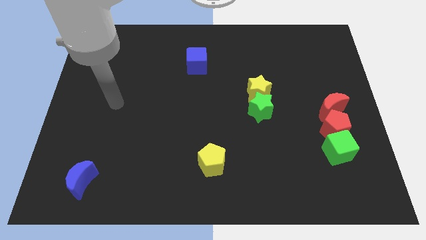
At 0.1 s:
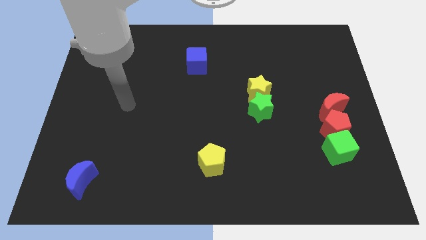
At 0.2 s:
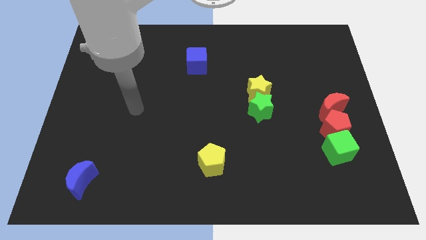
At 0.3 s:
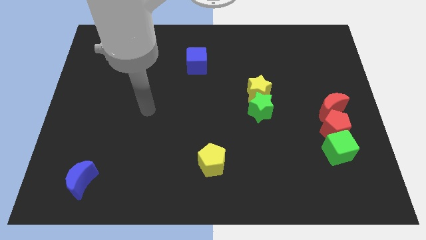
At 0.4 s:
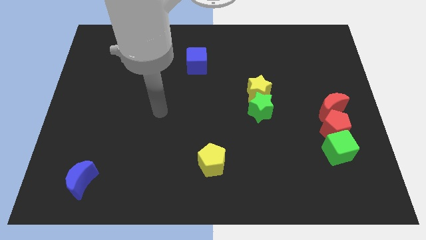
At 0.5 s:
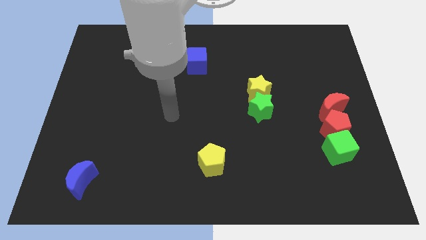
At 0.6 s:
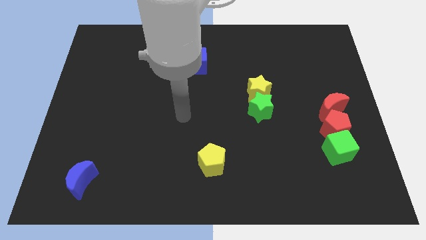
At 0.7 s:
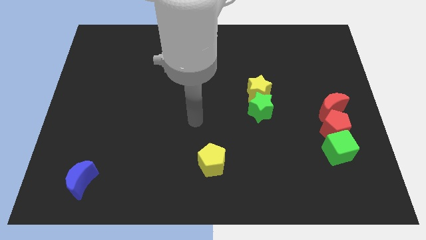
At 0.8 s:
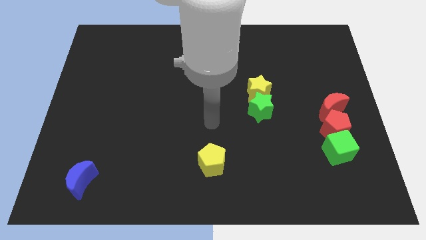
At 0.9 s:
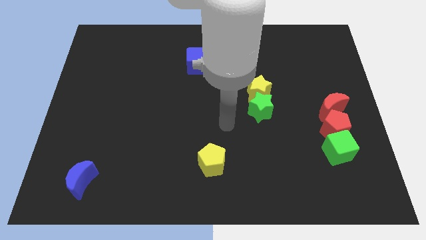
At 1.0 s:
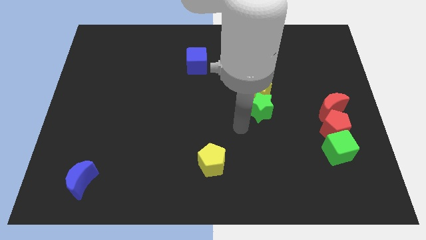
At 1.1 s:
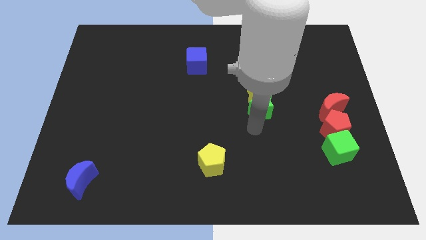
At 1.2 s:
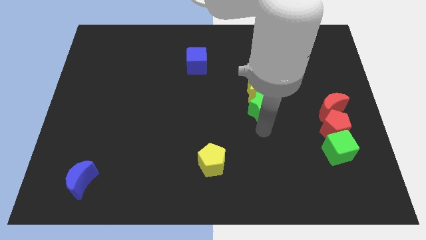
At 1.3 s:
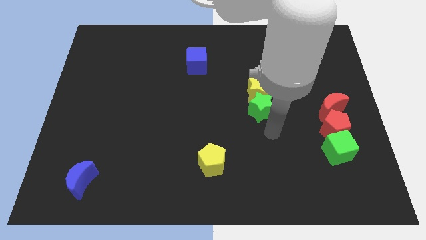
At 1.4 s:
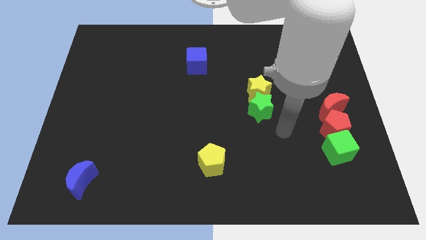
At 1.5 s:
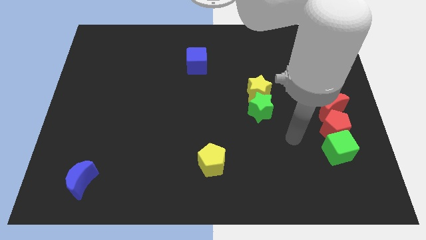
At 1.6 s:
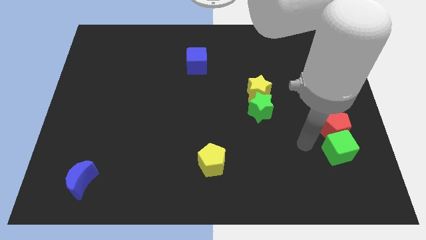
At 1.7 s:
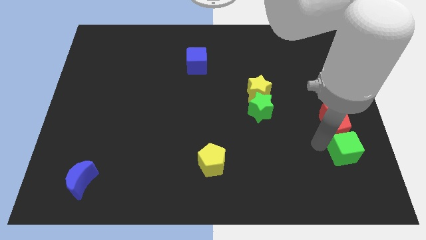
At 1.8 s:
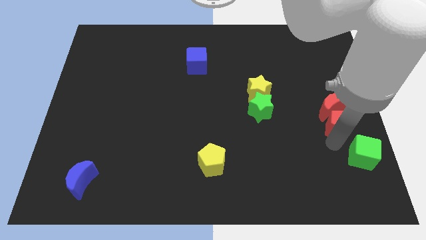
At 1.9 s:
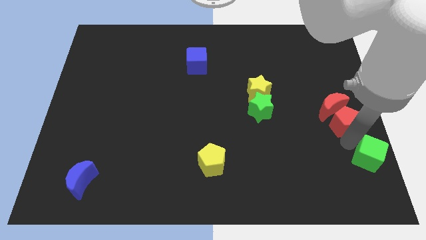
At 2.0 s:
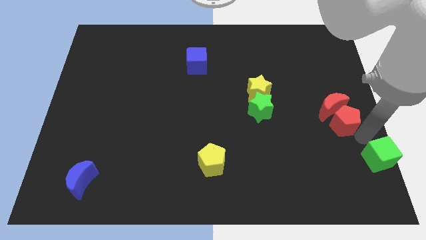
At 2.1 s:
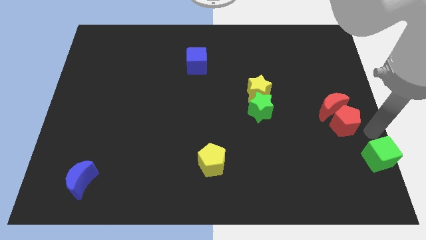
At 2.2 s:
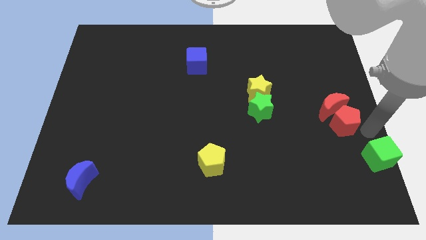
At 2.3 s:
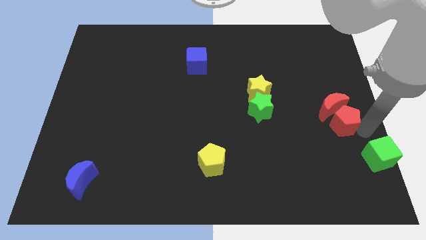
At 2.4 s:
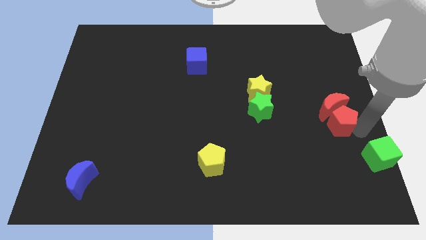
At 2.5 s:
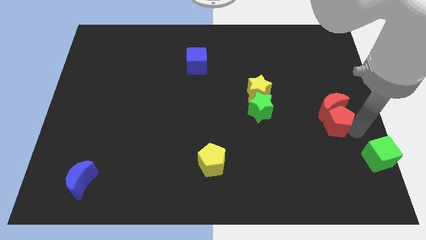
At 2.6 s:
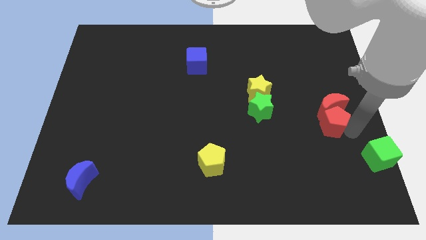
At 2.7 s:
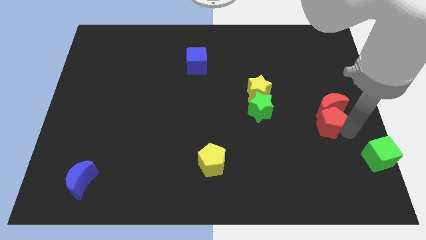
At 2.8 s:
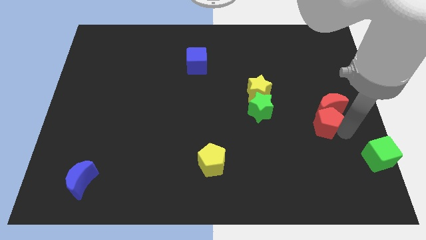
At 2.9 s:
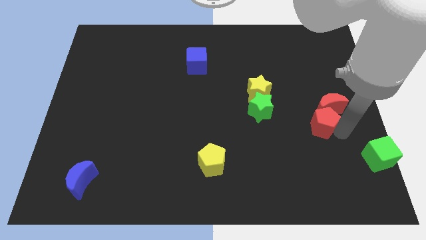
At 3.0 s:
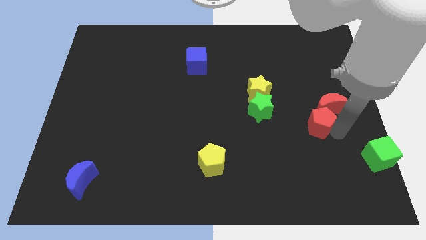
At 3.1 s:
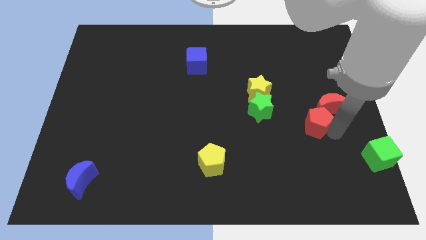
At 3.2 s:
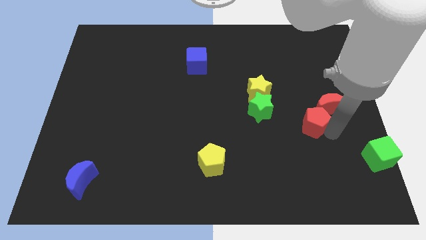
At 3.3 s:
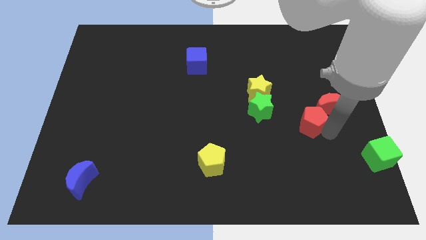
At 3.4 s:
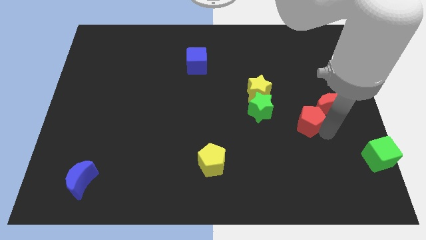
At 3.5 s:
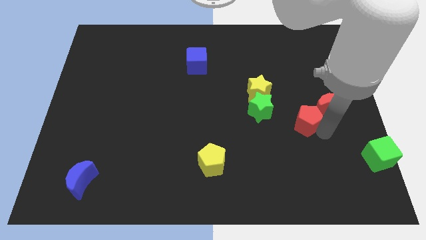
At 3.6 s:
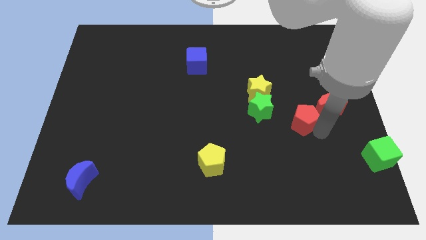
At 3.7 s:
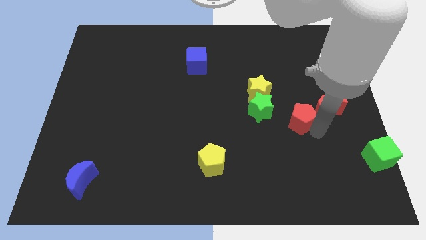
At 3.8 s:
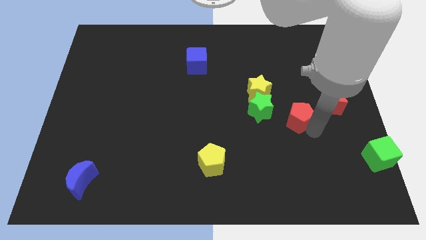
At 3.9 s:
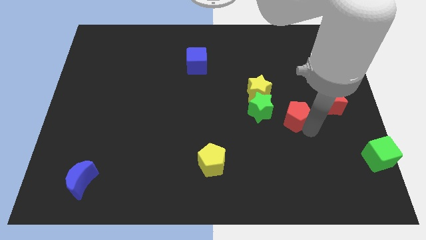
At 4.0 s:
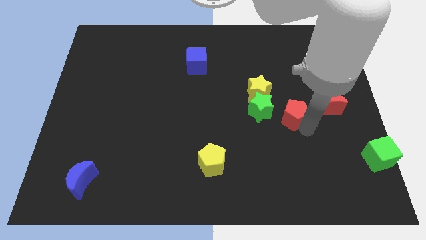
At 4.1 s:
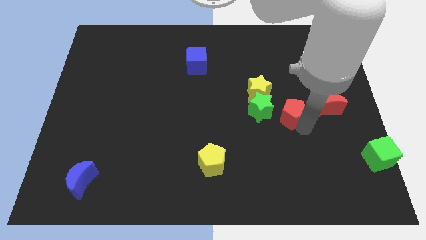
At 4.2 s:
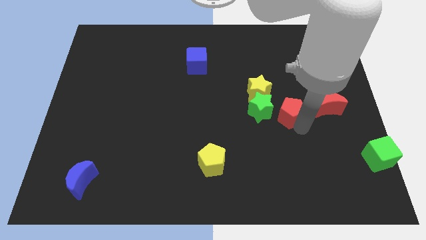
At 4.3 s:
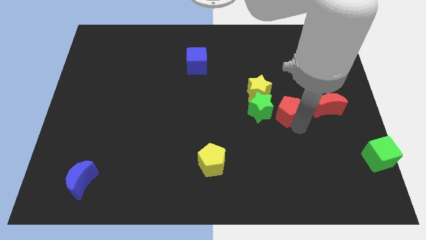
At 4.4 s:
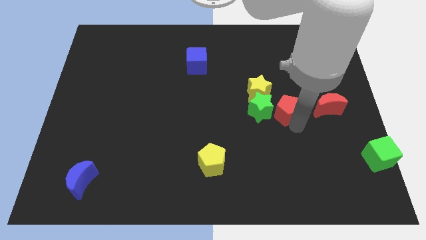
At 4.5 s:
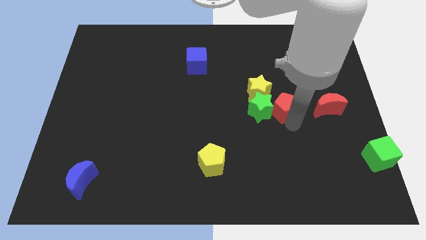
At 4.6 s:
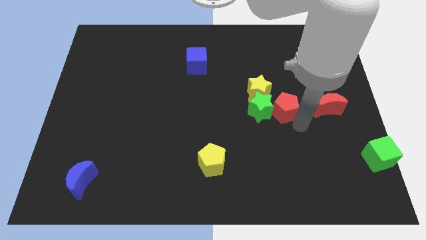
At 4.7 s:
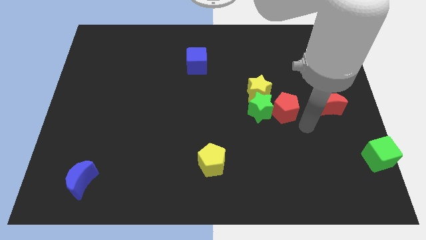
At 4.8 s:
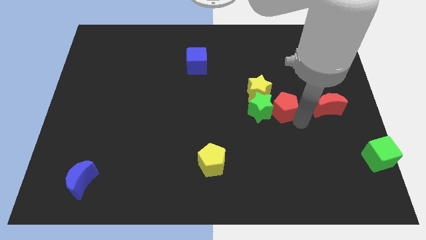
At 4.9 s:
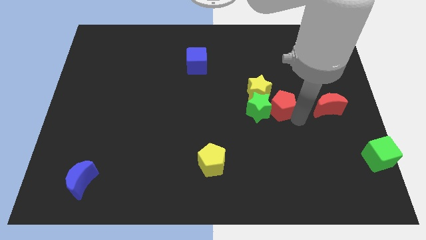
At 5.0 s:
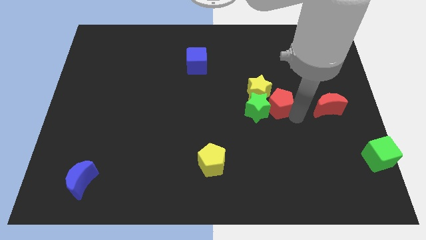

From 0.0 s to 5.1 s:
push the red pentagon close to the yellow star

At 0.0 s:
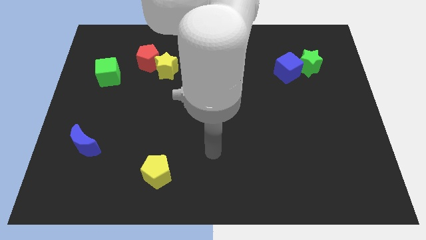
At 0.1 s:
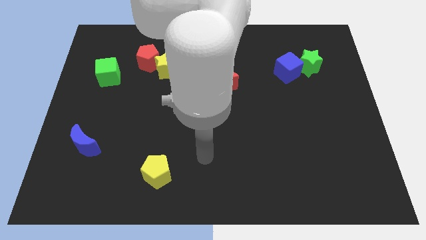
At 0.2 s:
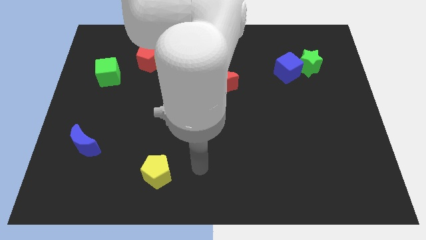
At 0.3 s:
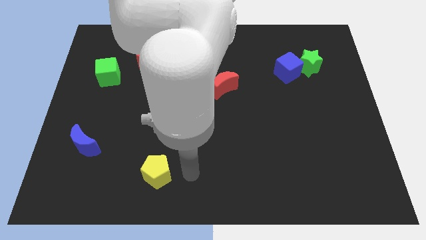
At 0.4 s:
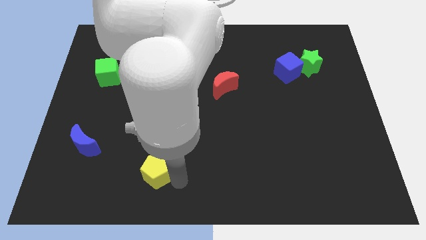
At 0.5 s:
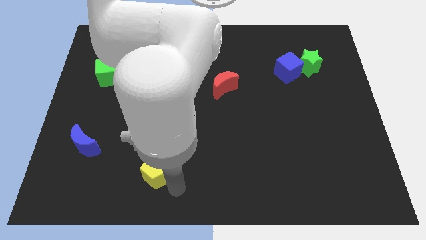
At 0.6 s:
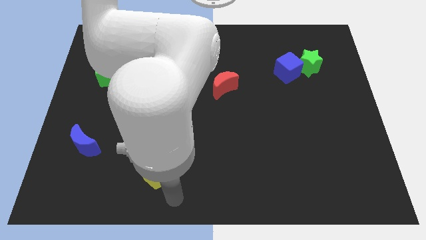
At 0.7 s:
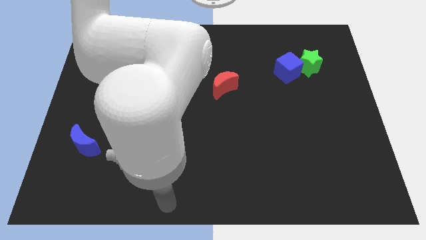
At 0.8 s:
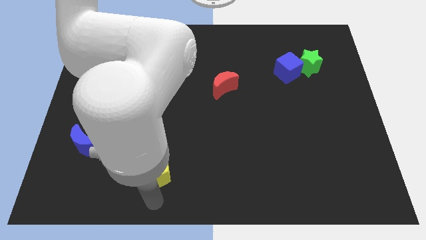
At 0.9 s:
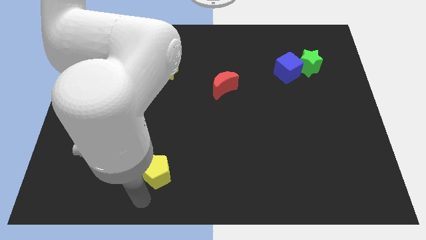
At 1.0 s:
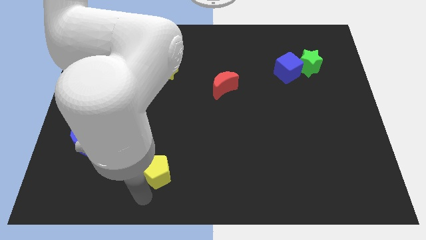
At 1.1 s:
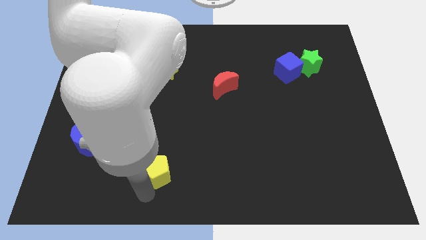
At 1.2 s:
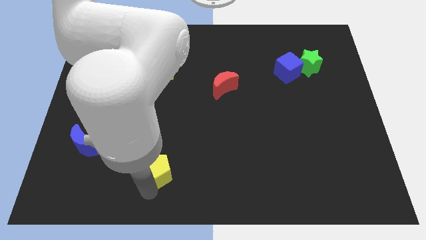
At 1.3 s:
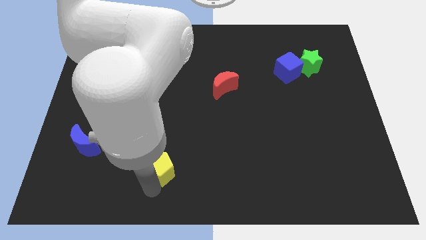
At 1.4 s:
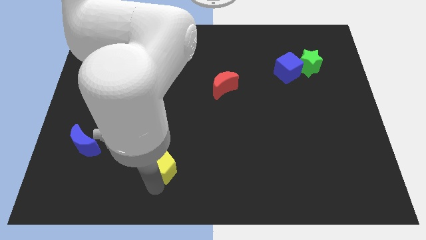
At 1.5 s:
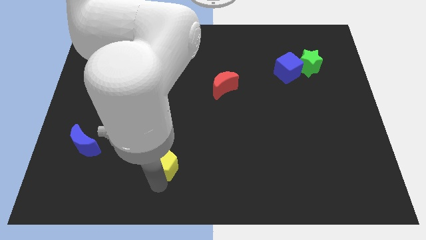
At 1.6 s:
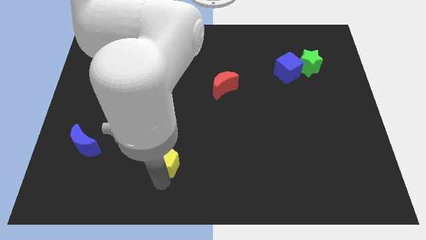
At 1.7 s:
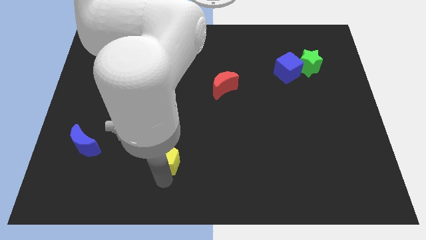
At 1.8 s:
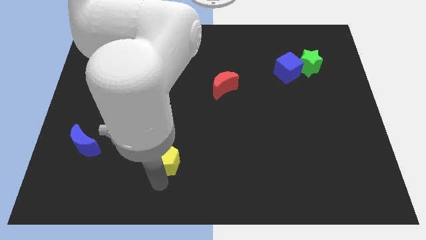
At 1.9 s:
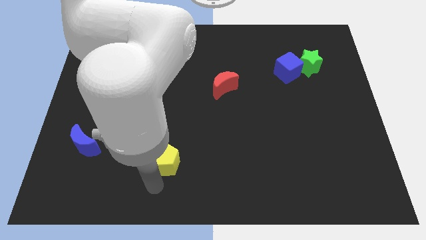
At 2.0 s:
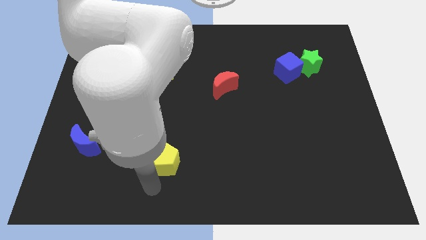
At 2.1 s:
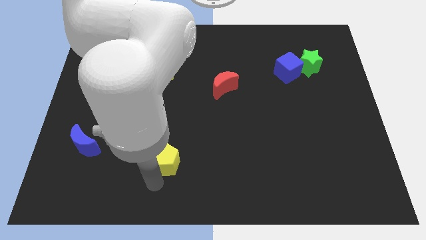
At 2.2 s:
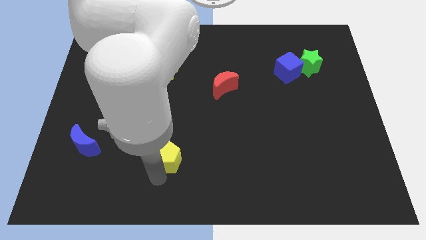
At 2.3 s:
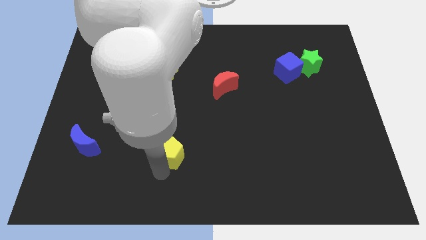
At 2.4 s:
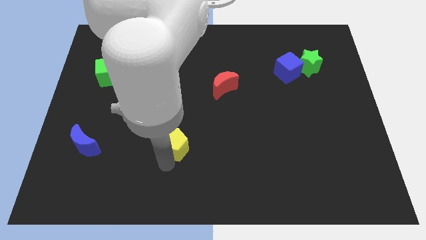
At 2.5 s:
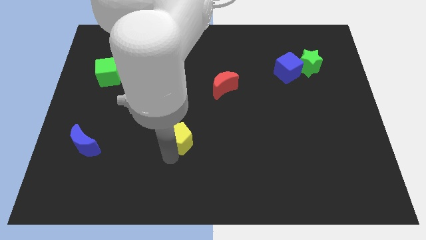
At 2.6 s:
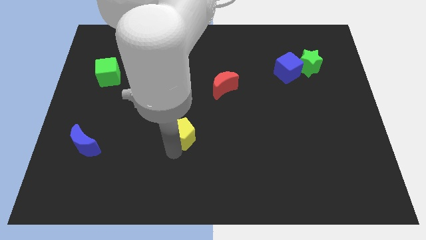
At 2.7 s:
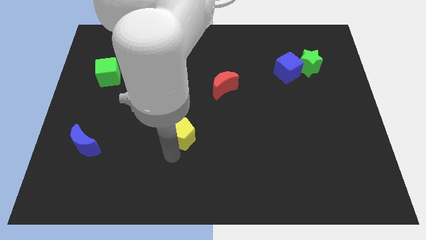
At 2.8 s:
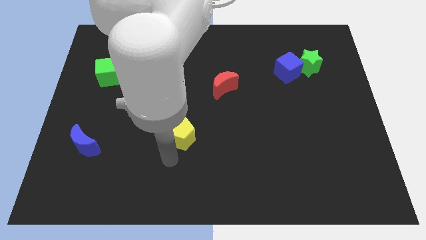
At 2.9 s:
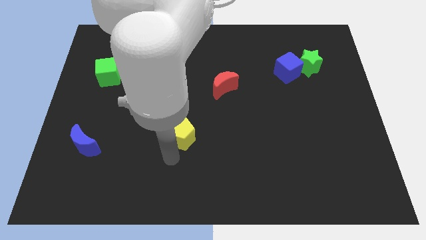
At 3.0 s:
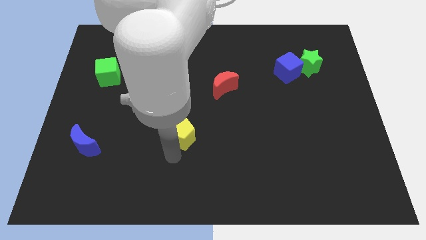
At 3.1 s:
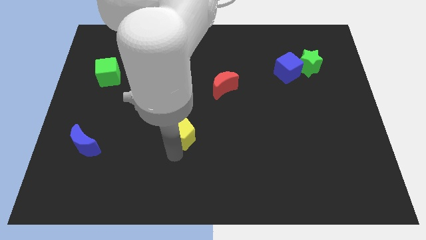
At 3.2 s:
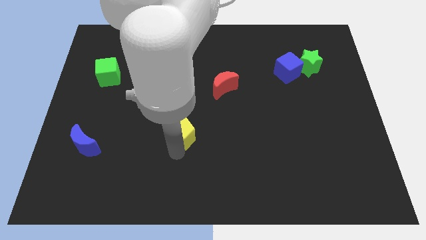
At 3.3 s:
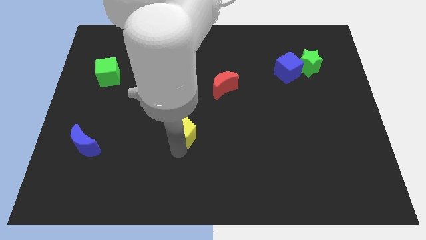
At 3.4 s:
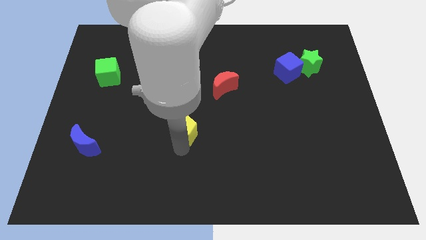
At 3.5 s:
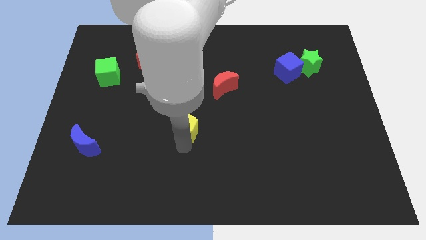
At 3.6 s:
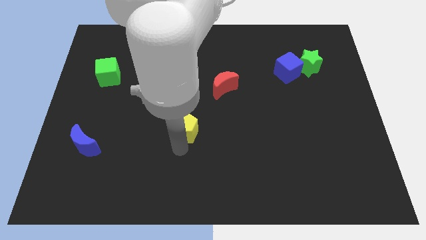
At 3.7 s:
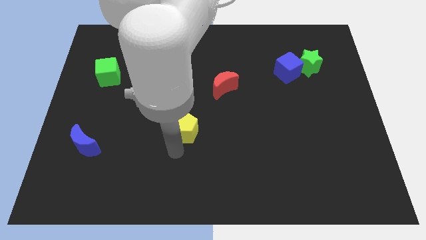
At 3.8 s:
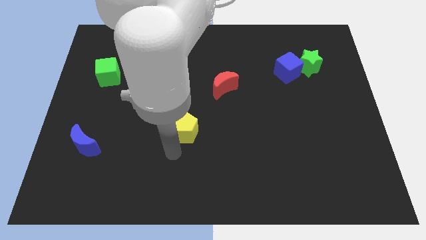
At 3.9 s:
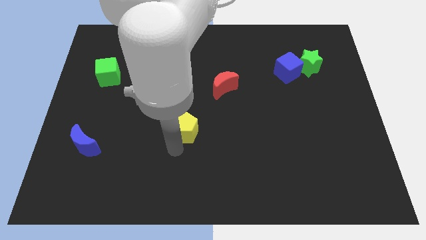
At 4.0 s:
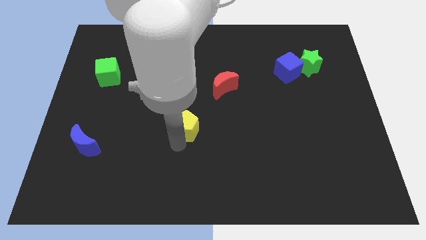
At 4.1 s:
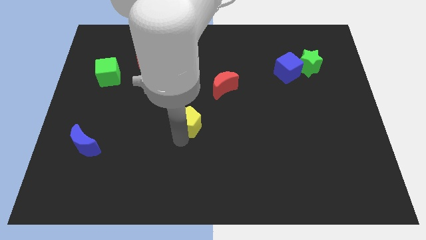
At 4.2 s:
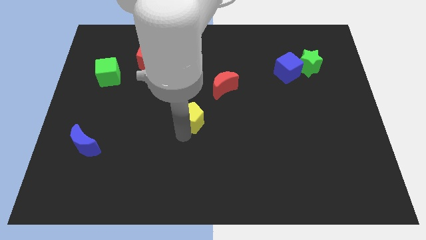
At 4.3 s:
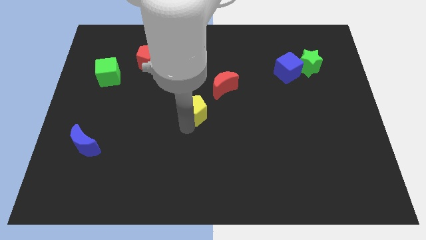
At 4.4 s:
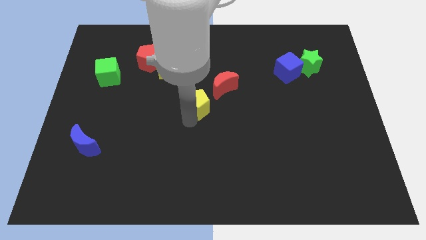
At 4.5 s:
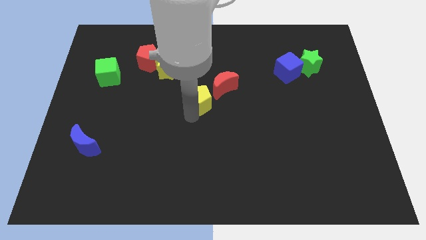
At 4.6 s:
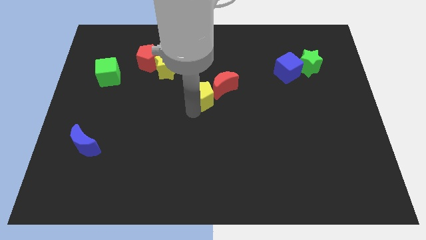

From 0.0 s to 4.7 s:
put the yellow pentagon close to the red moon
